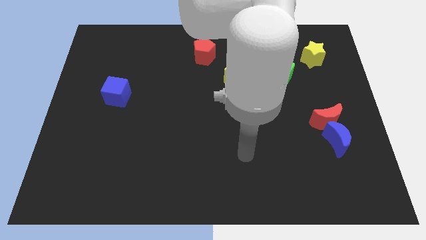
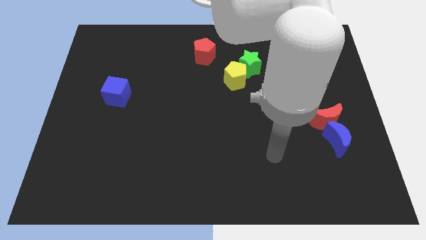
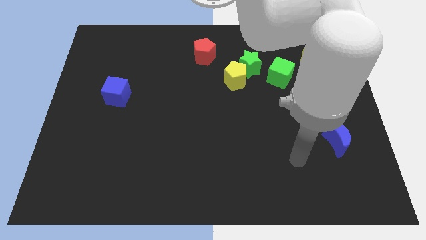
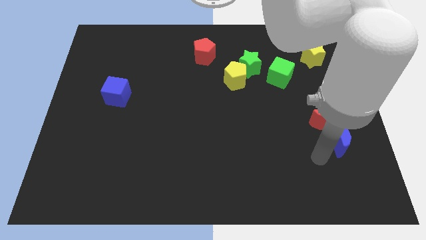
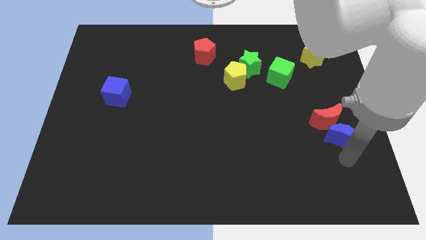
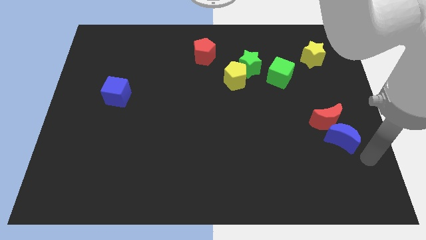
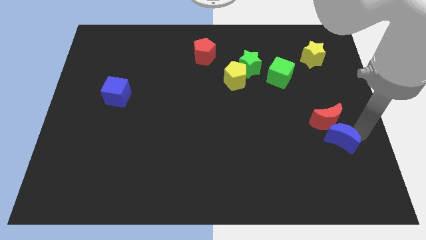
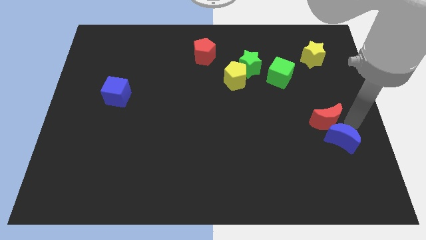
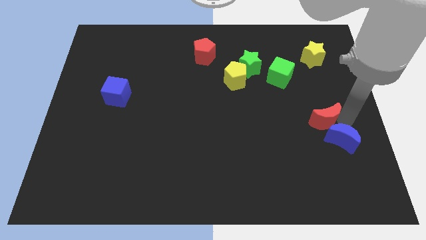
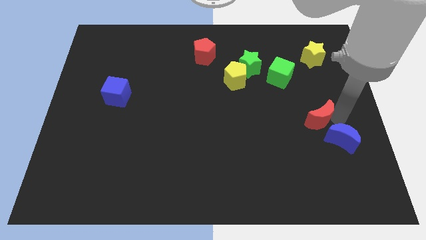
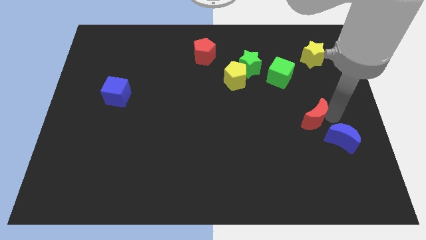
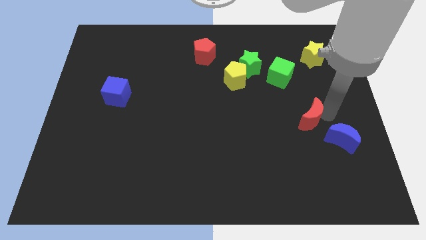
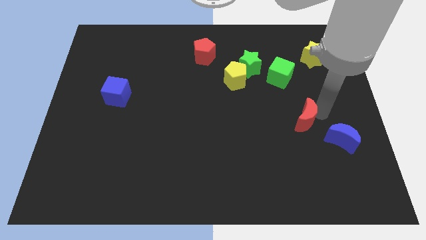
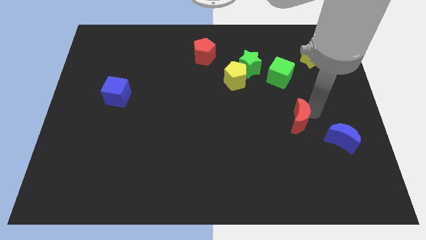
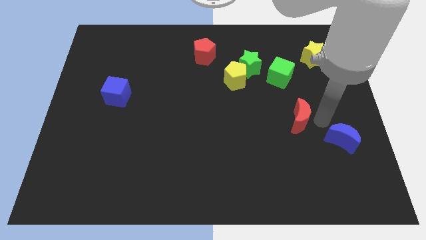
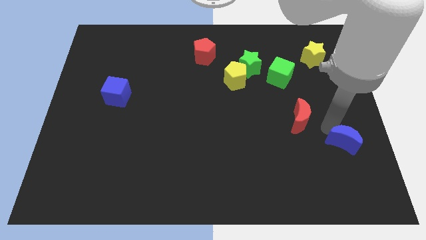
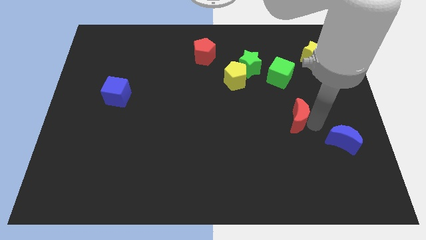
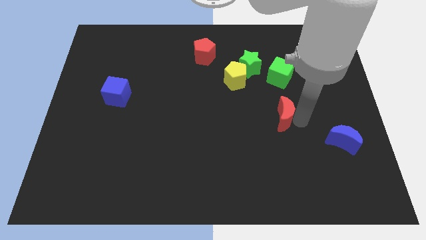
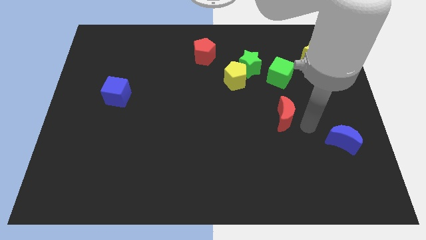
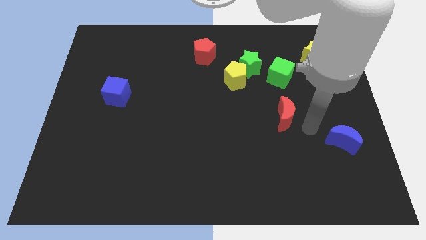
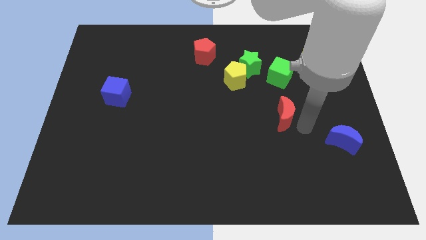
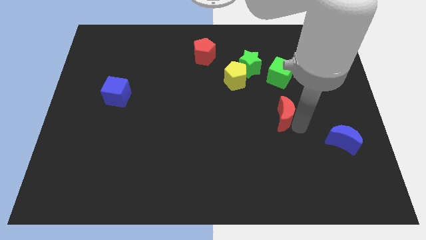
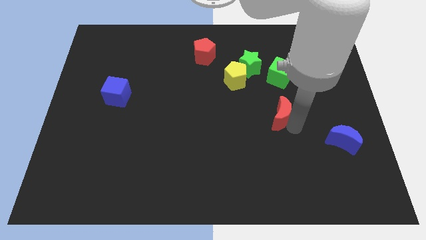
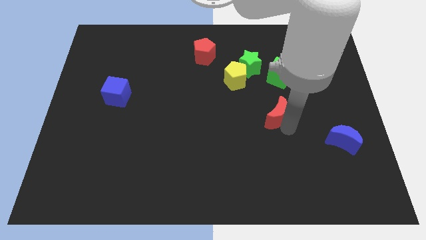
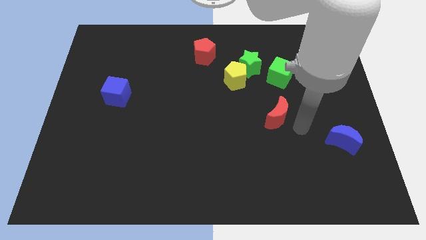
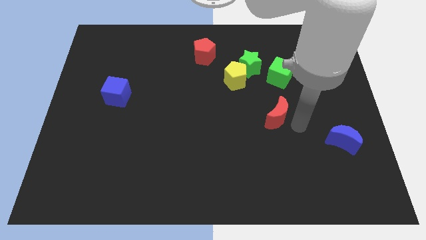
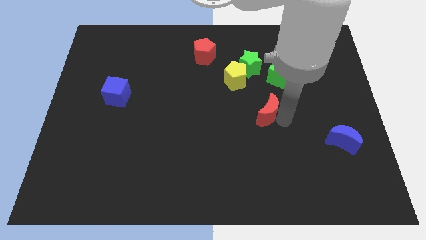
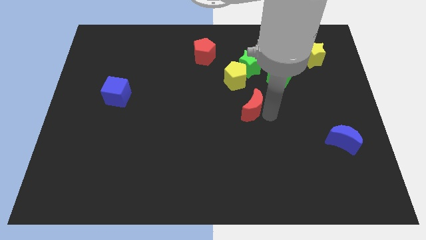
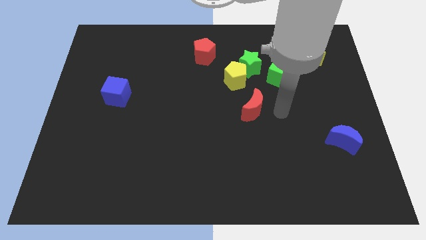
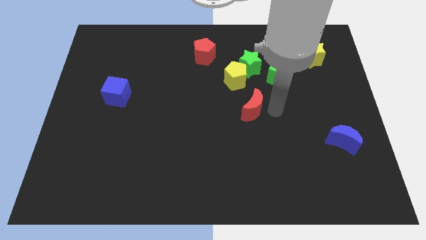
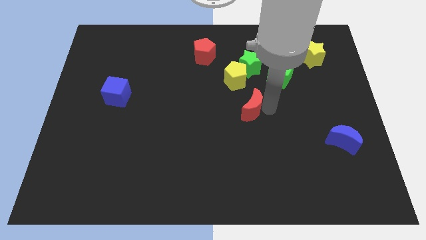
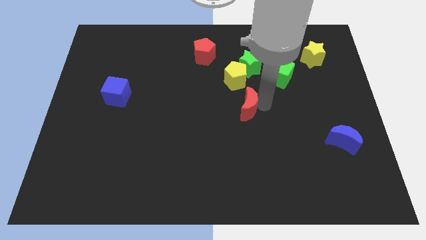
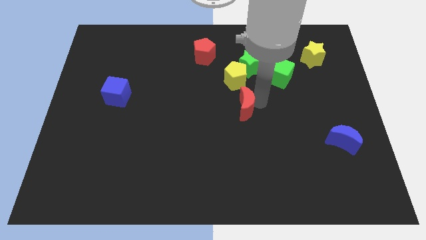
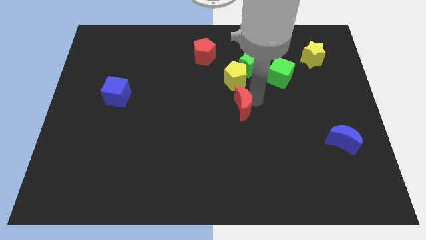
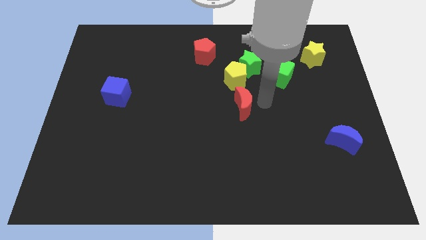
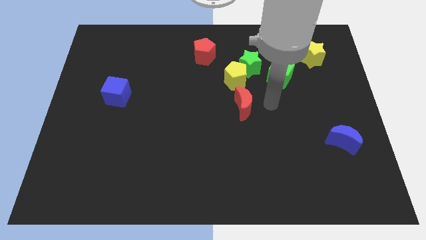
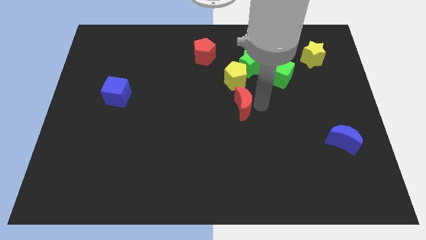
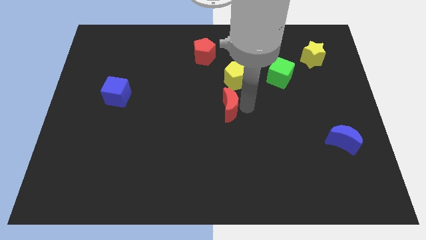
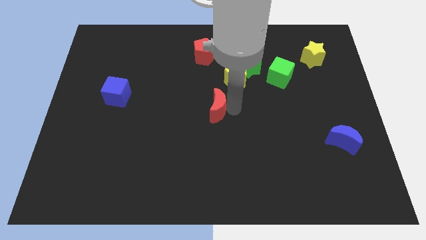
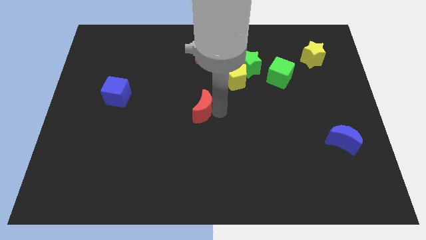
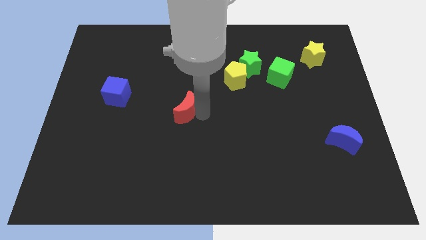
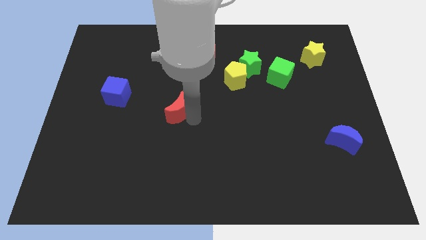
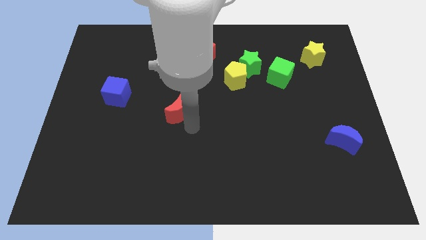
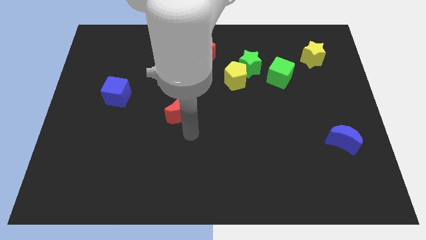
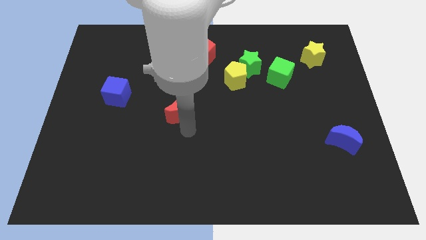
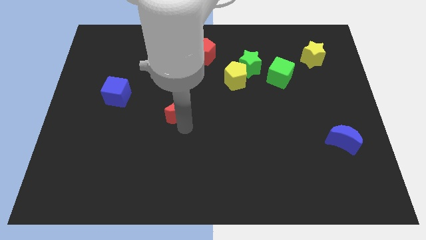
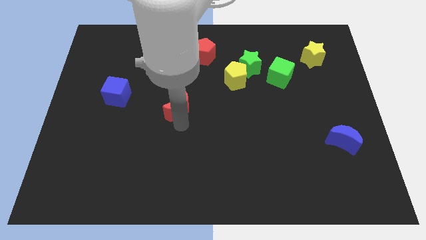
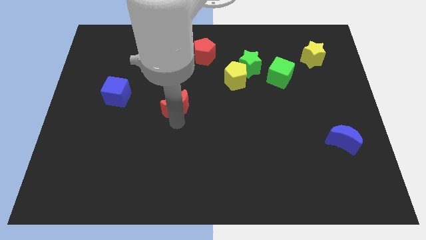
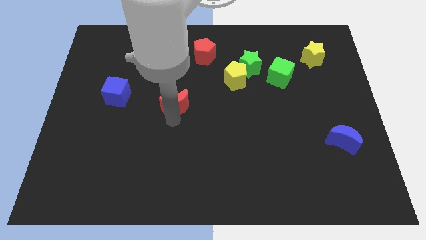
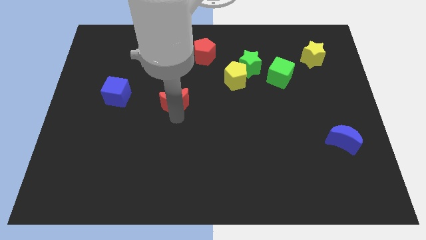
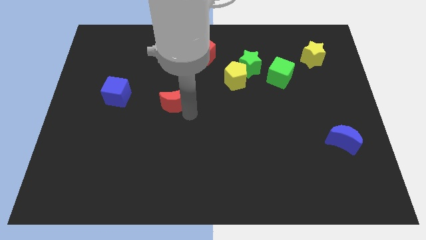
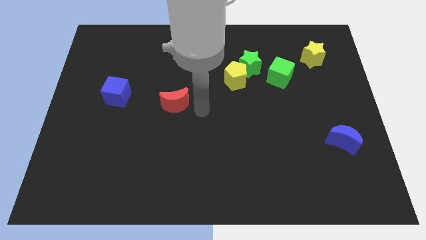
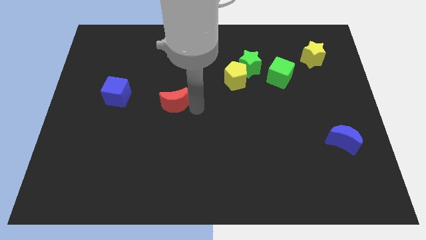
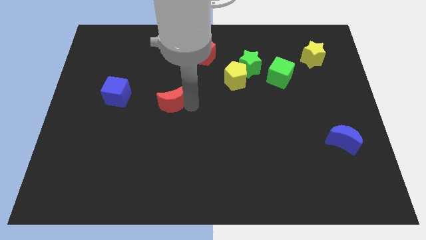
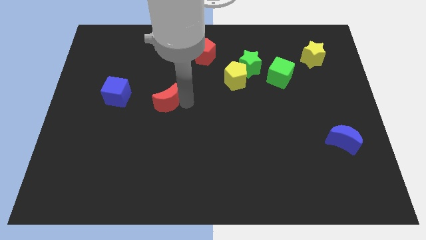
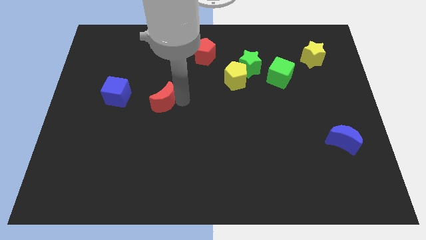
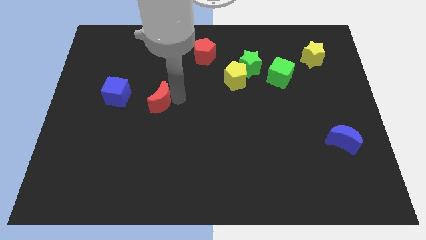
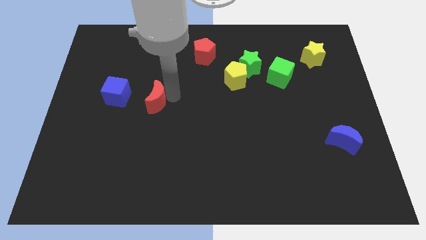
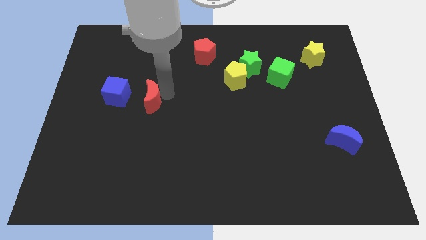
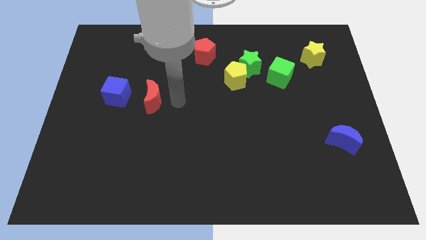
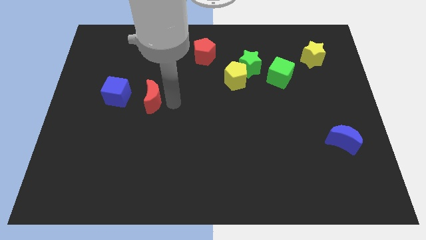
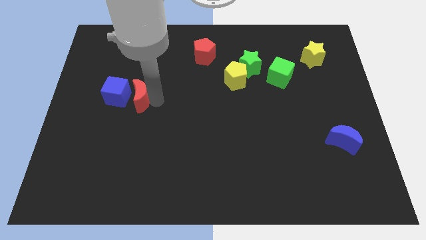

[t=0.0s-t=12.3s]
put the red moon to the blue cube

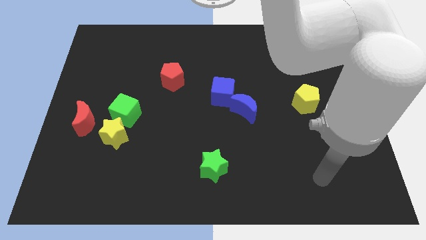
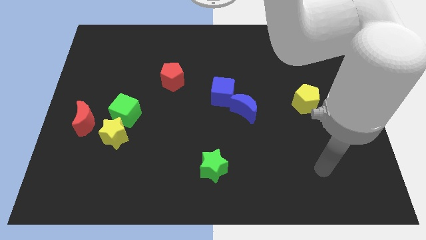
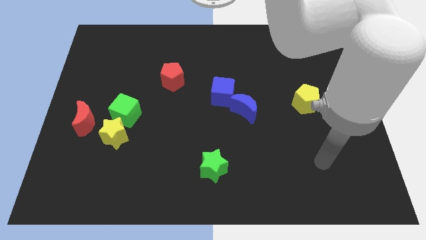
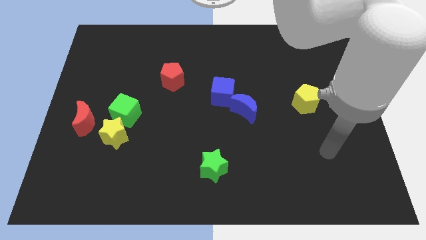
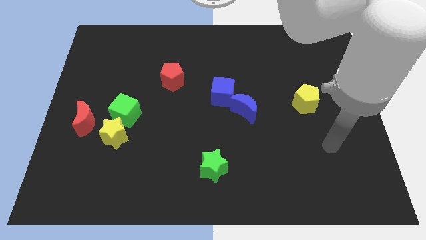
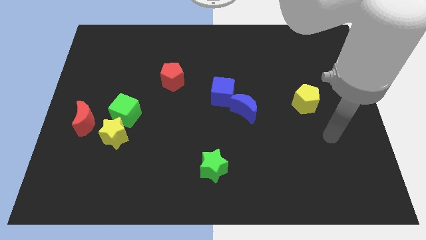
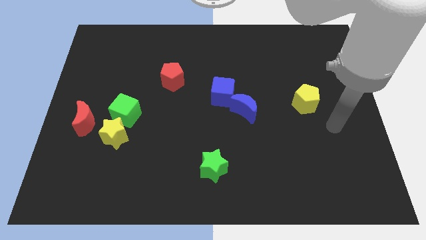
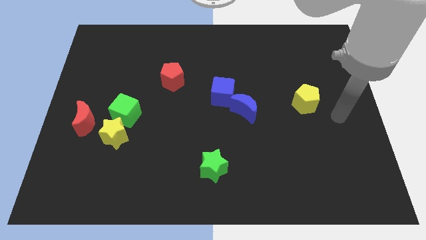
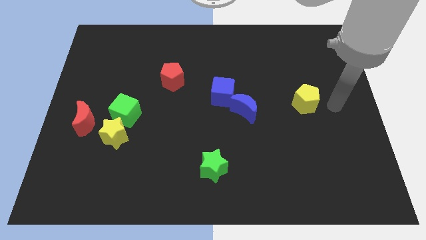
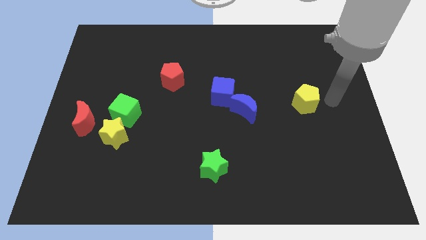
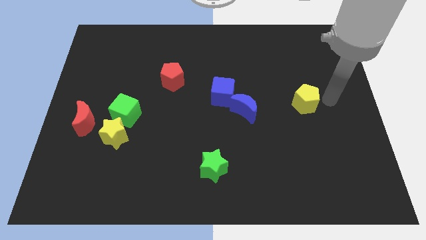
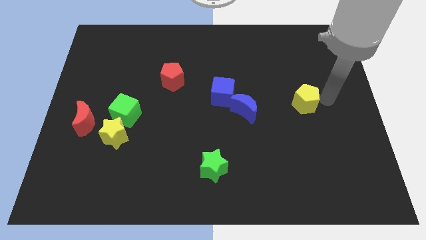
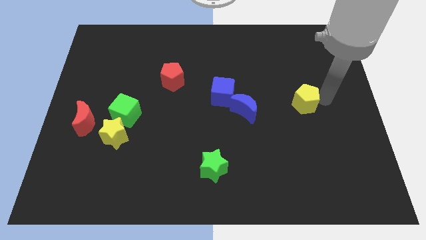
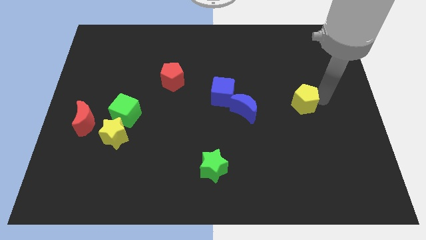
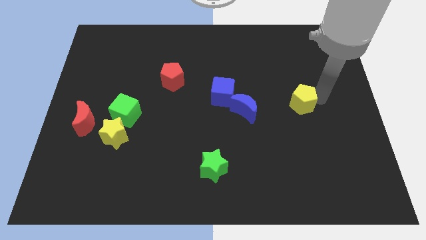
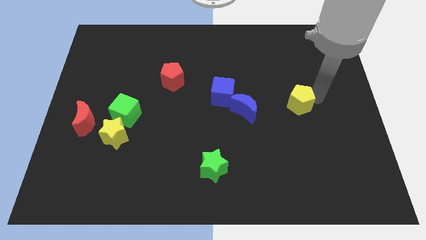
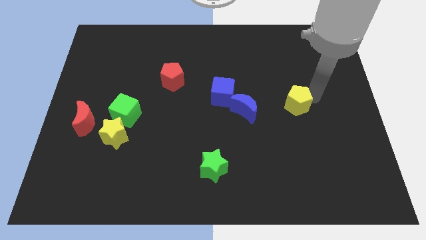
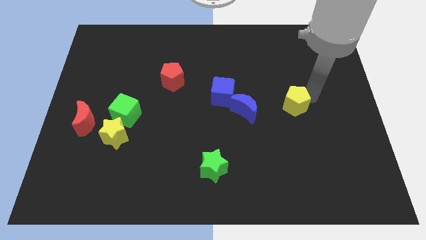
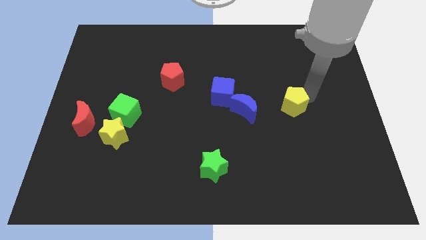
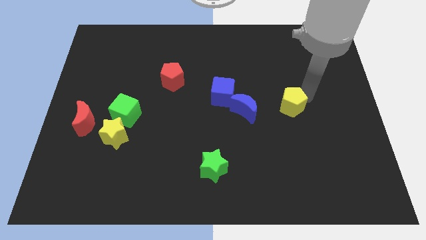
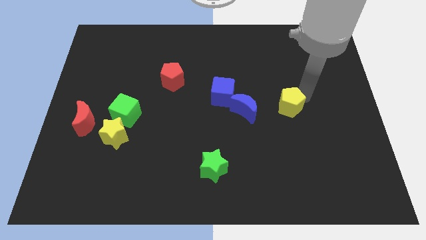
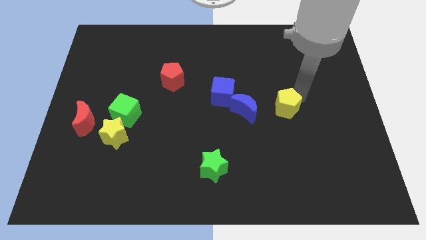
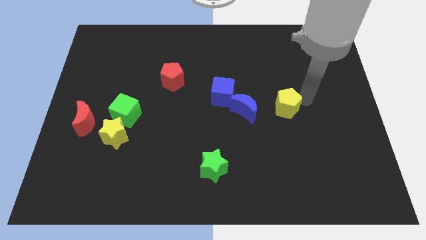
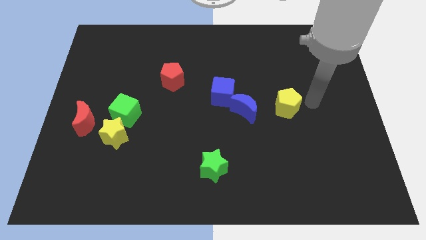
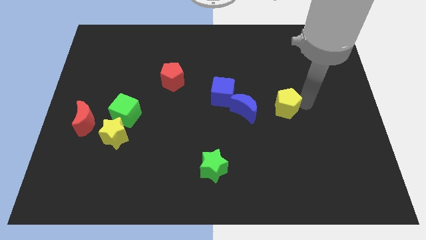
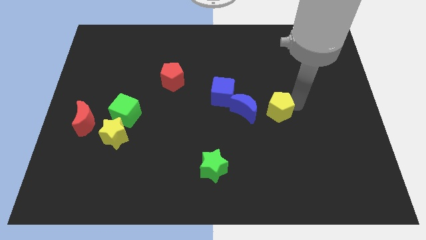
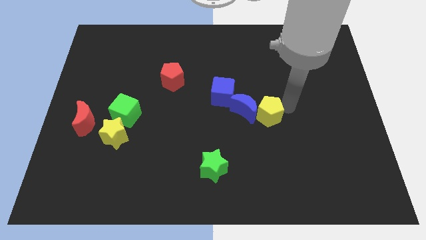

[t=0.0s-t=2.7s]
push the yellow pentagon close to the blue moon
